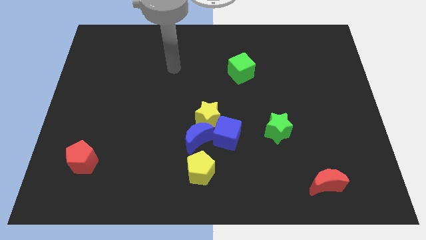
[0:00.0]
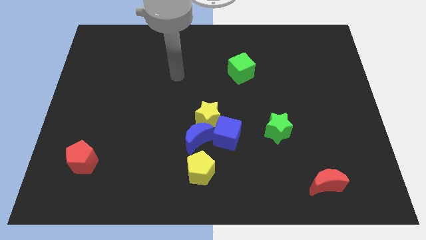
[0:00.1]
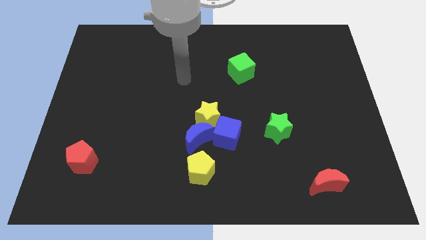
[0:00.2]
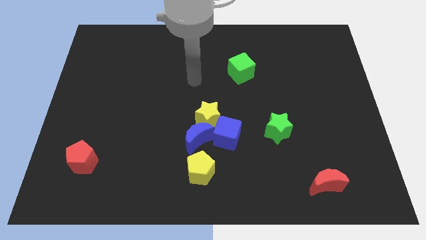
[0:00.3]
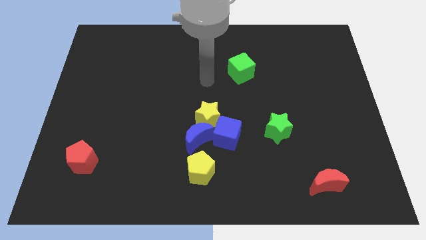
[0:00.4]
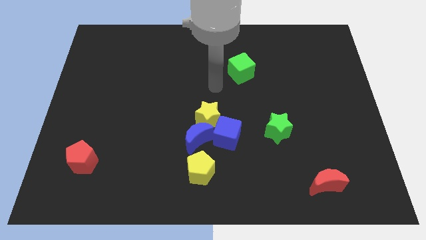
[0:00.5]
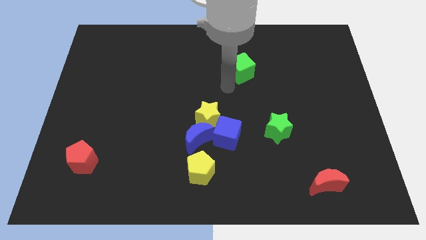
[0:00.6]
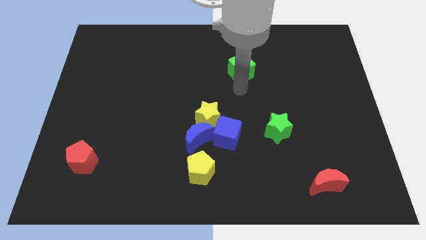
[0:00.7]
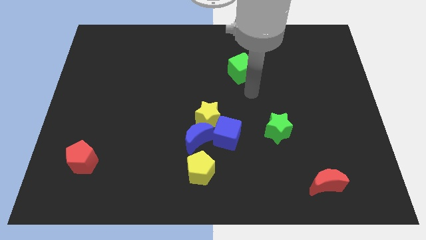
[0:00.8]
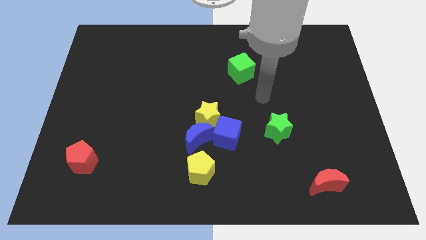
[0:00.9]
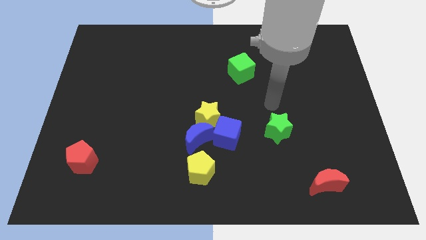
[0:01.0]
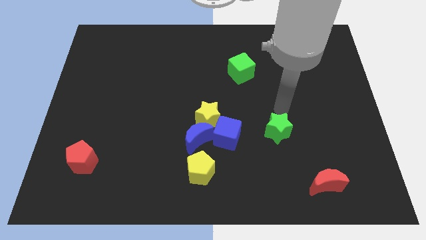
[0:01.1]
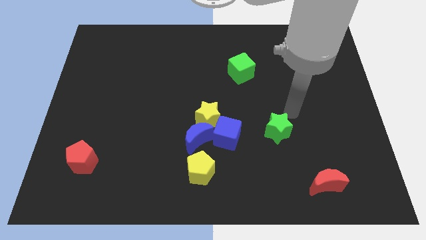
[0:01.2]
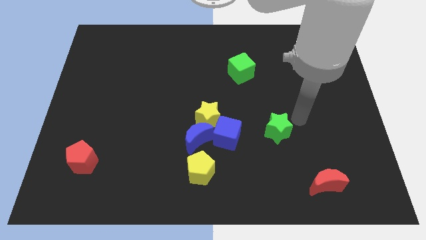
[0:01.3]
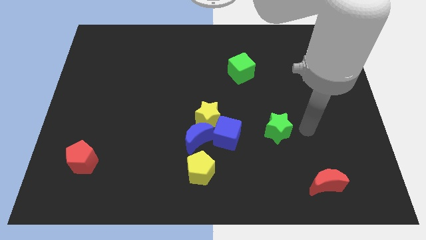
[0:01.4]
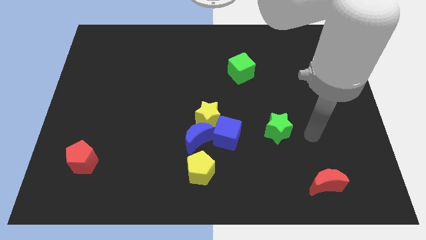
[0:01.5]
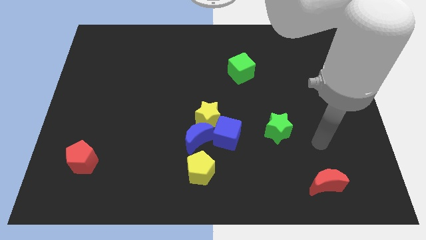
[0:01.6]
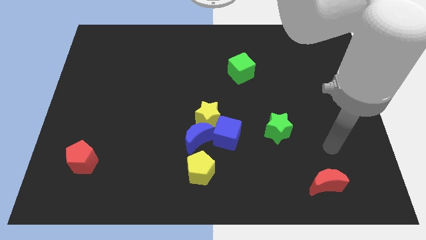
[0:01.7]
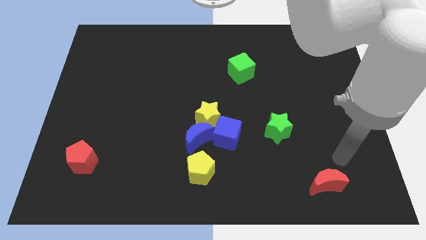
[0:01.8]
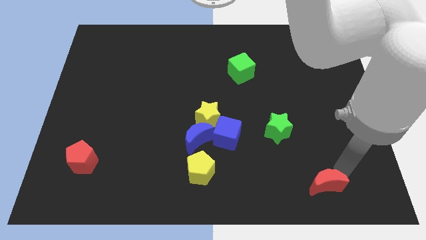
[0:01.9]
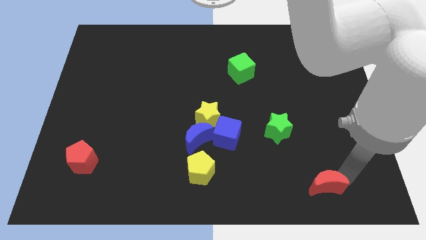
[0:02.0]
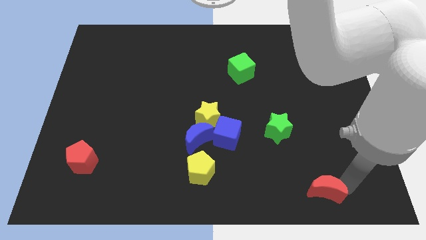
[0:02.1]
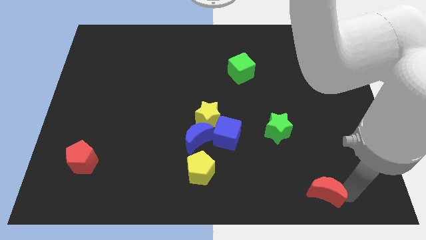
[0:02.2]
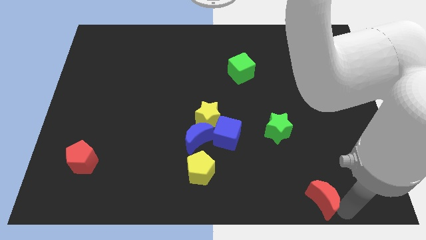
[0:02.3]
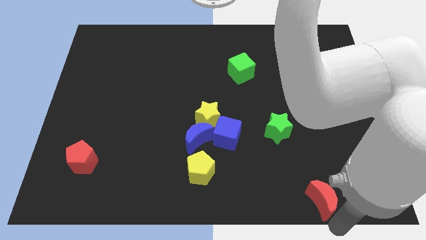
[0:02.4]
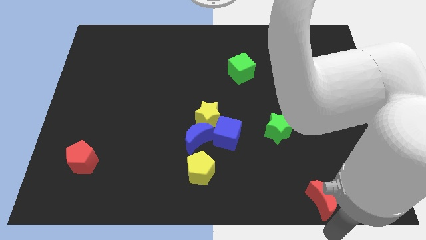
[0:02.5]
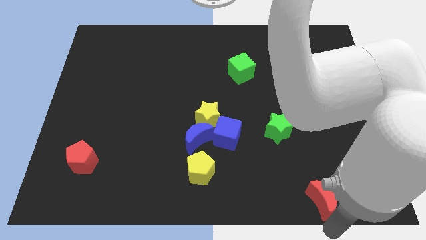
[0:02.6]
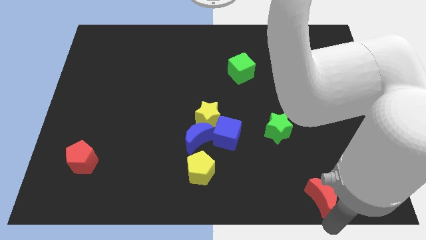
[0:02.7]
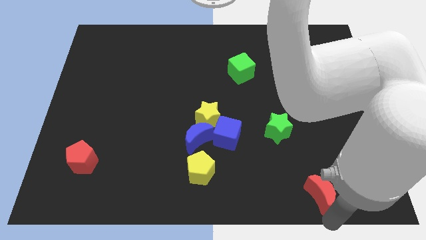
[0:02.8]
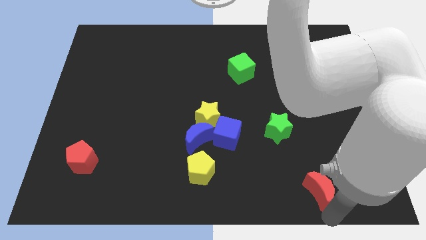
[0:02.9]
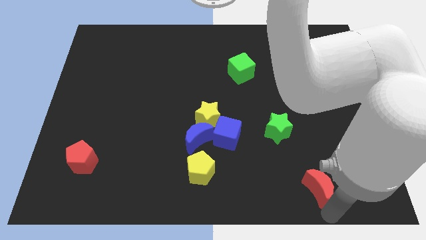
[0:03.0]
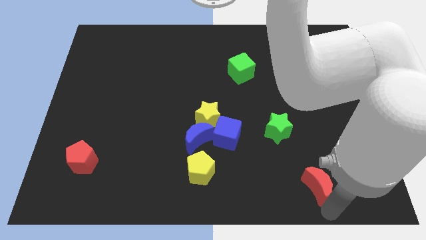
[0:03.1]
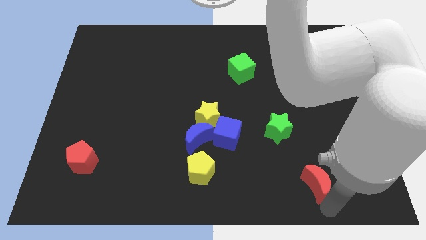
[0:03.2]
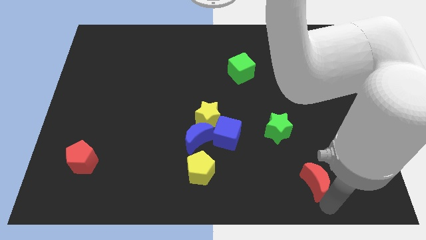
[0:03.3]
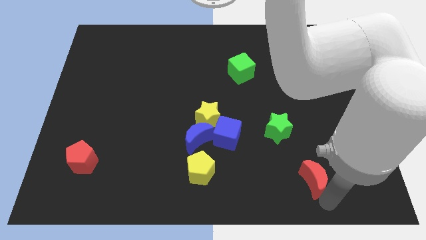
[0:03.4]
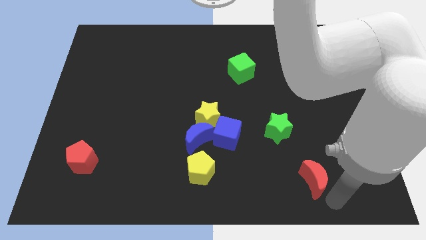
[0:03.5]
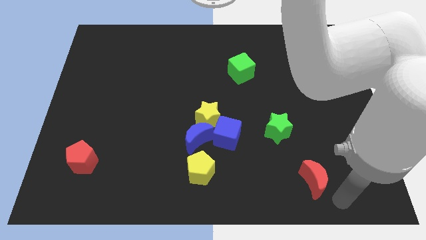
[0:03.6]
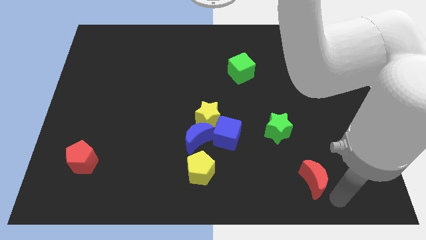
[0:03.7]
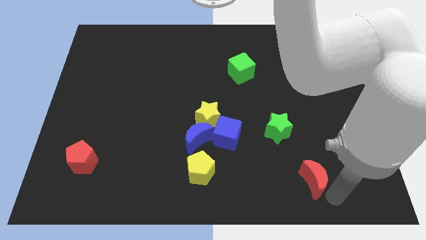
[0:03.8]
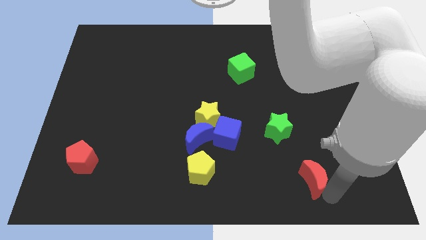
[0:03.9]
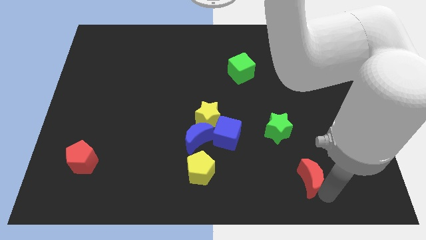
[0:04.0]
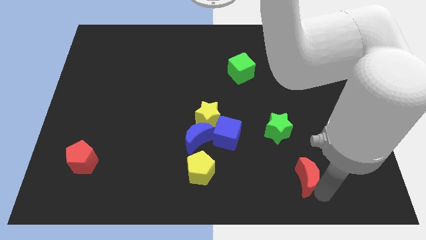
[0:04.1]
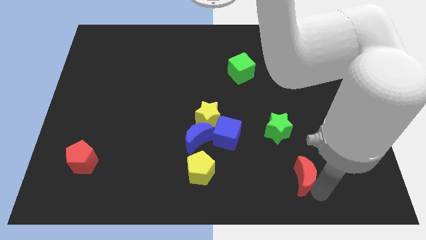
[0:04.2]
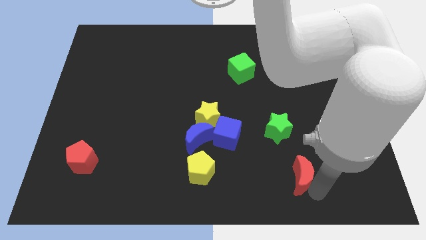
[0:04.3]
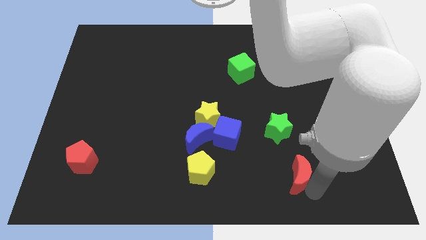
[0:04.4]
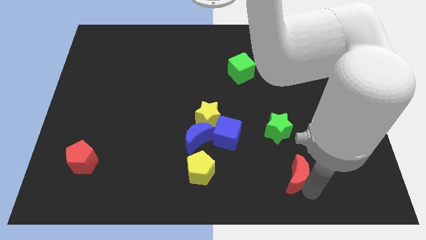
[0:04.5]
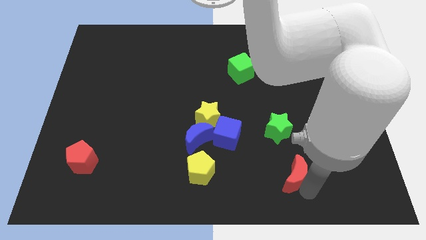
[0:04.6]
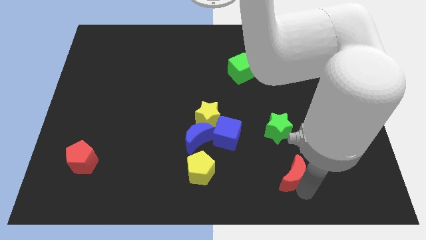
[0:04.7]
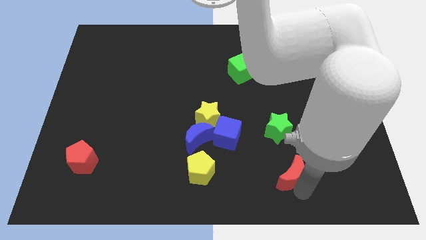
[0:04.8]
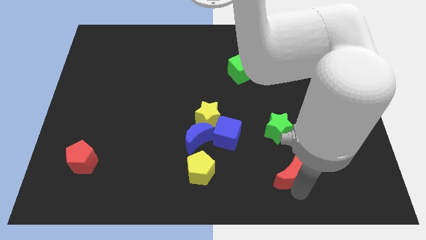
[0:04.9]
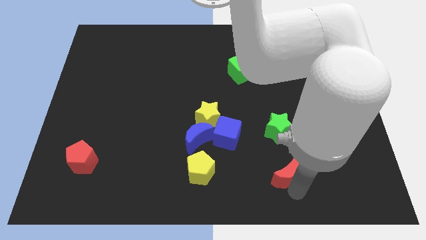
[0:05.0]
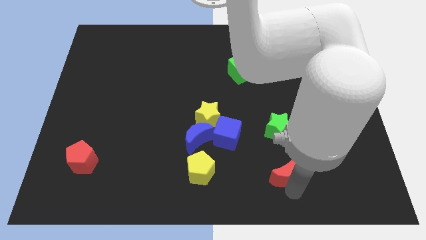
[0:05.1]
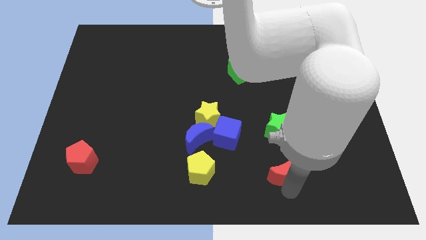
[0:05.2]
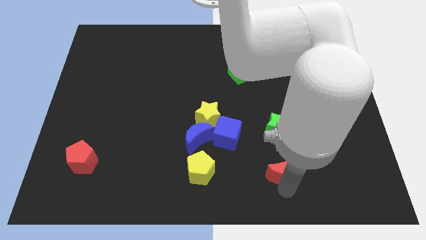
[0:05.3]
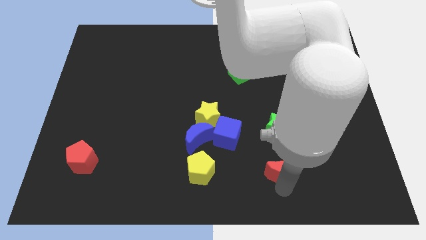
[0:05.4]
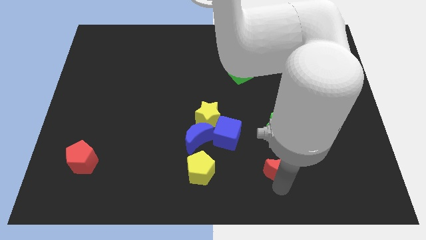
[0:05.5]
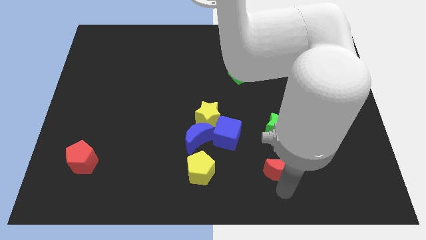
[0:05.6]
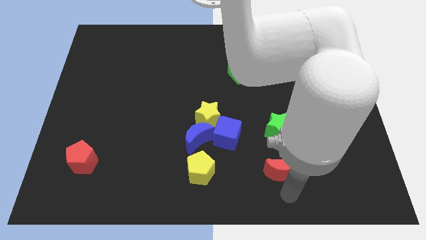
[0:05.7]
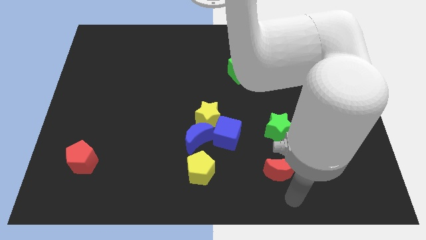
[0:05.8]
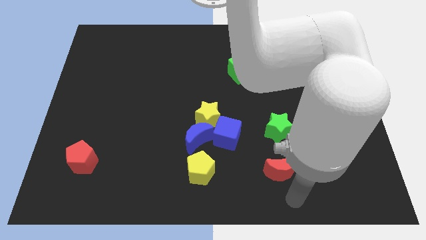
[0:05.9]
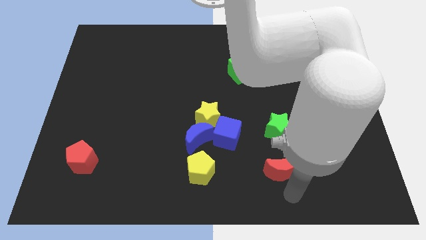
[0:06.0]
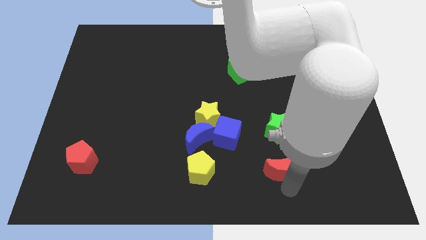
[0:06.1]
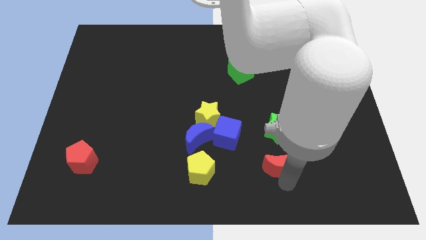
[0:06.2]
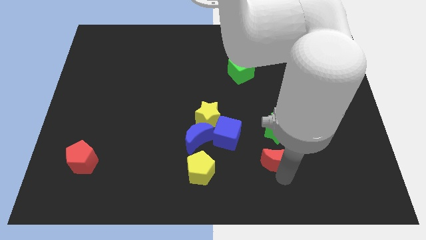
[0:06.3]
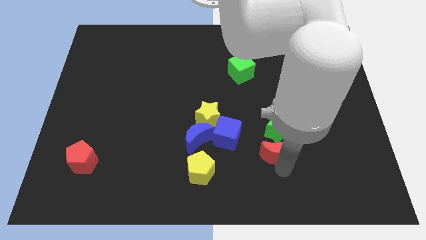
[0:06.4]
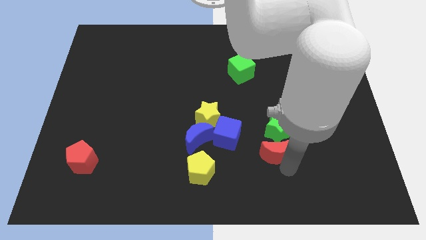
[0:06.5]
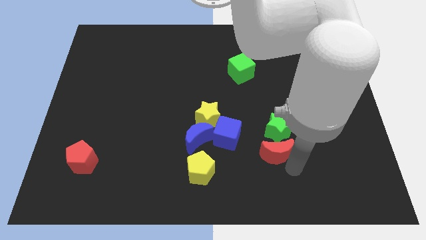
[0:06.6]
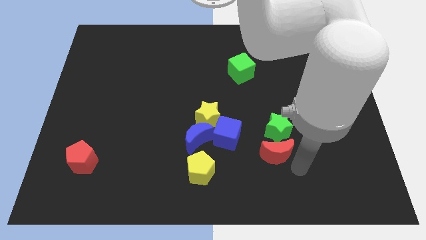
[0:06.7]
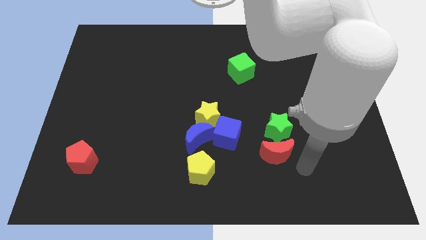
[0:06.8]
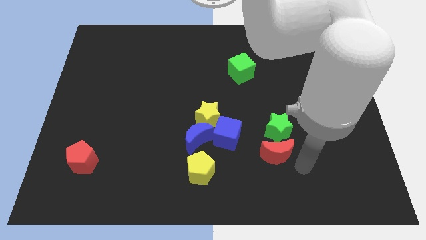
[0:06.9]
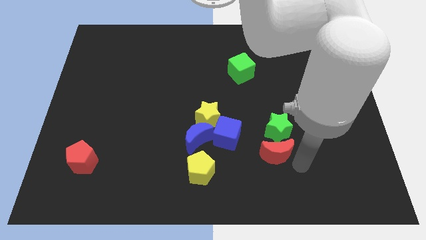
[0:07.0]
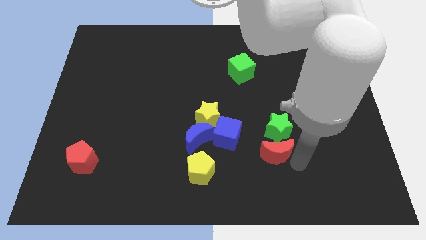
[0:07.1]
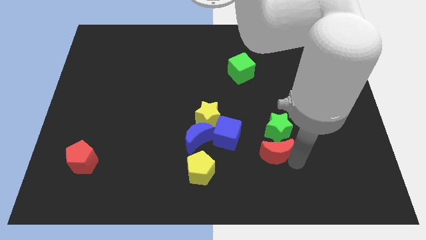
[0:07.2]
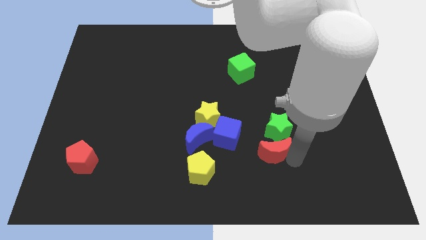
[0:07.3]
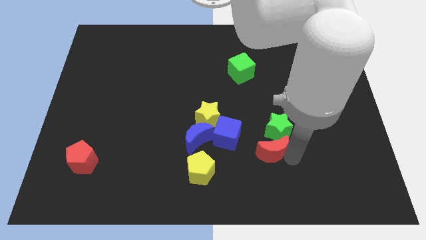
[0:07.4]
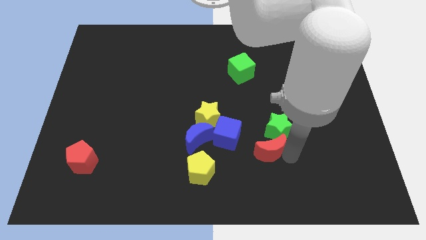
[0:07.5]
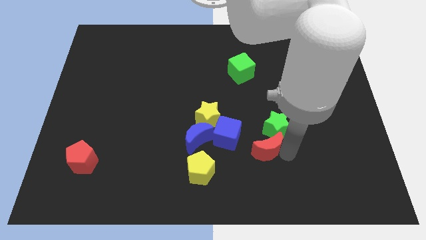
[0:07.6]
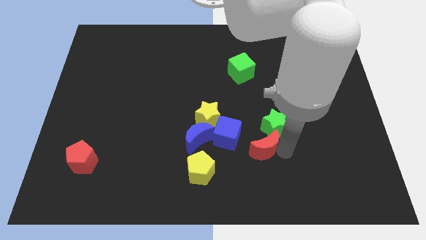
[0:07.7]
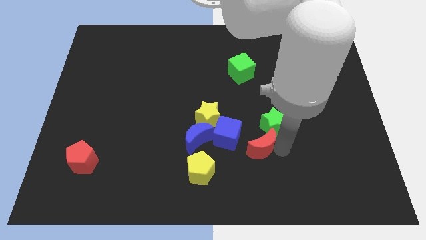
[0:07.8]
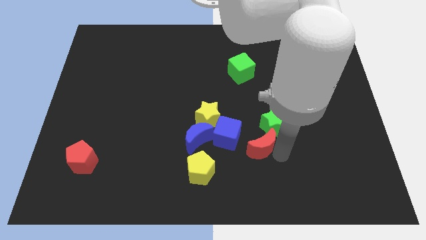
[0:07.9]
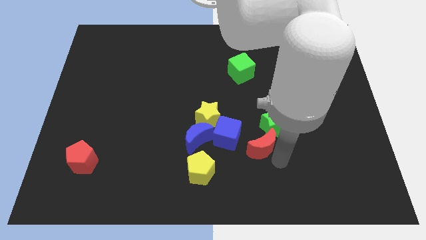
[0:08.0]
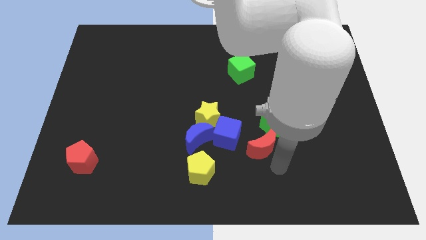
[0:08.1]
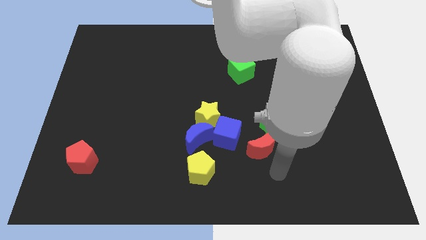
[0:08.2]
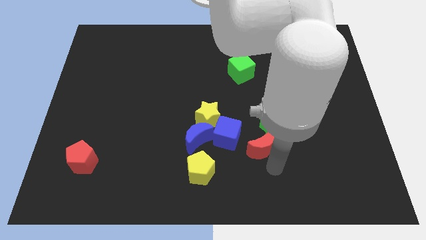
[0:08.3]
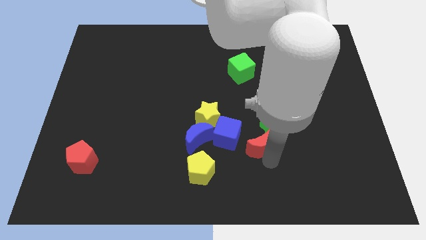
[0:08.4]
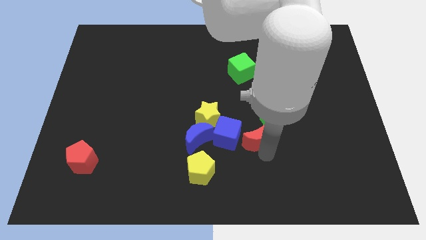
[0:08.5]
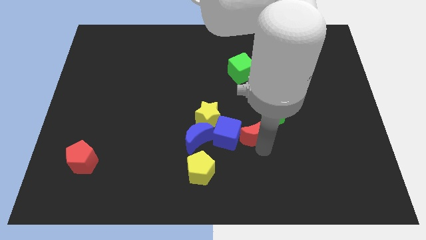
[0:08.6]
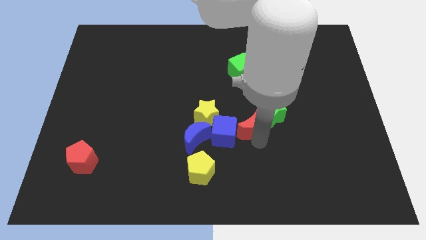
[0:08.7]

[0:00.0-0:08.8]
put the red moon to the middle
